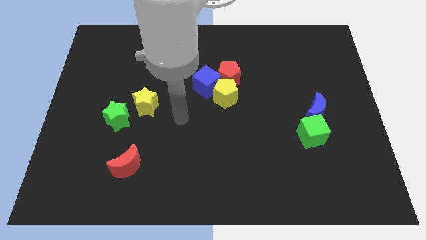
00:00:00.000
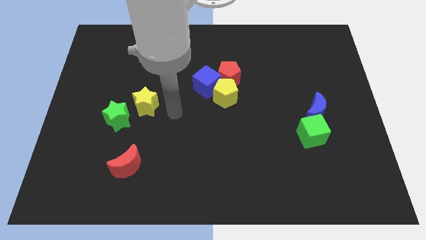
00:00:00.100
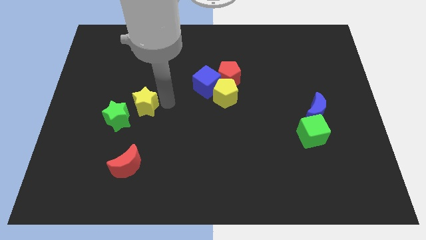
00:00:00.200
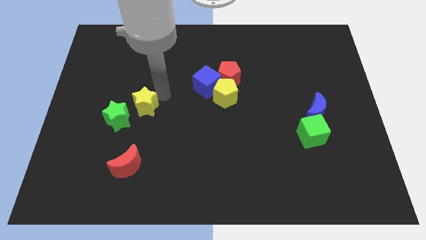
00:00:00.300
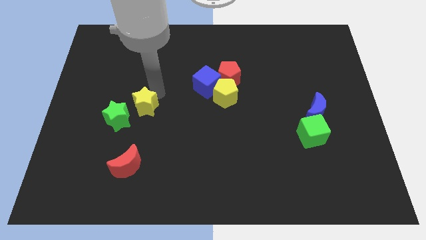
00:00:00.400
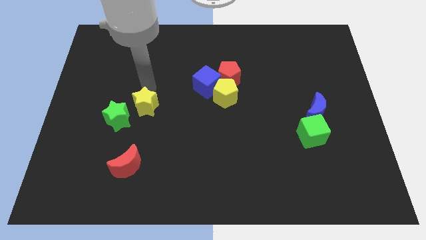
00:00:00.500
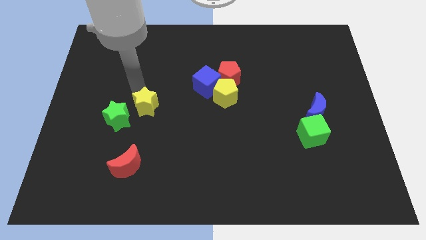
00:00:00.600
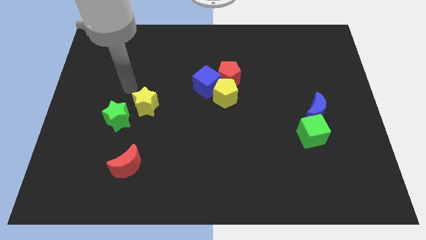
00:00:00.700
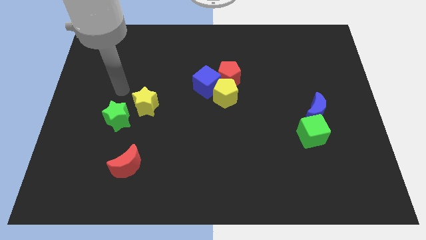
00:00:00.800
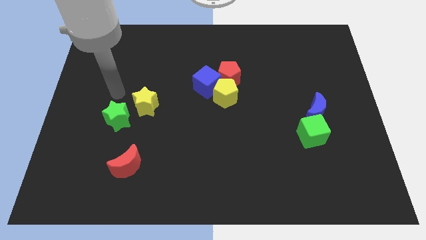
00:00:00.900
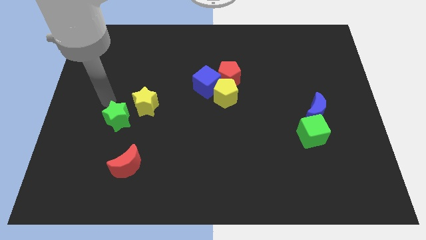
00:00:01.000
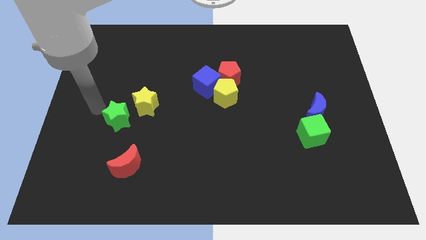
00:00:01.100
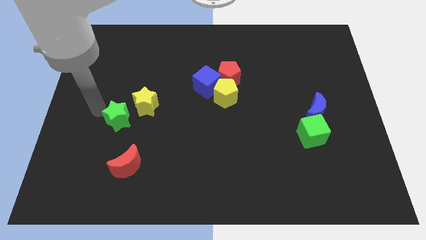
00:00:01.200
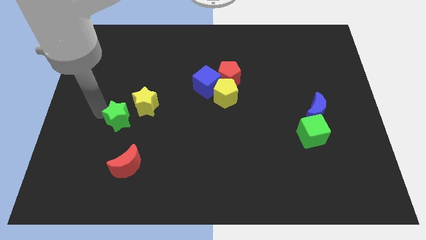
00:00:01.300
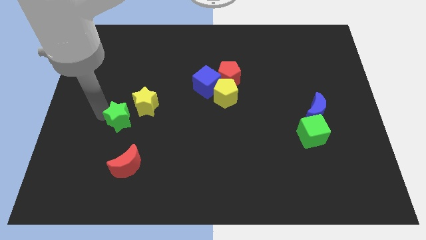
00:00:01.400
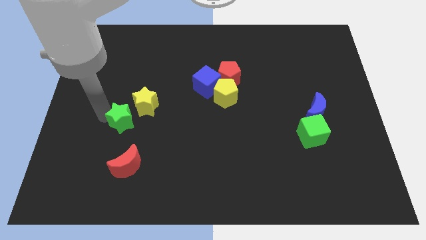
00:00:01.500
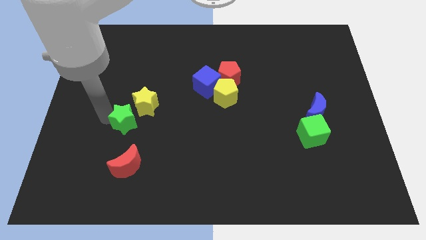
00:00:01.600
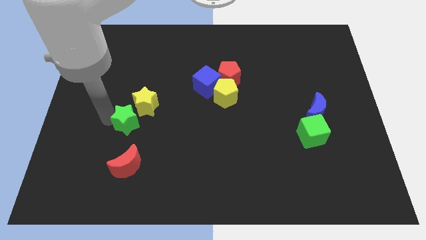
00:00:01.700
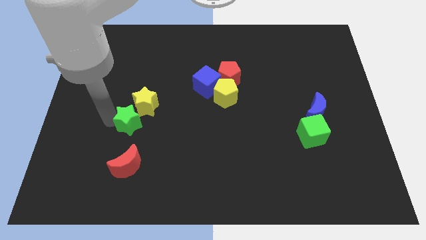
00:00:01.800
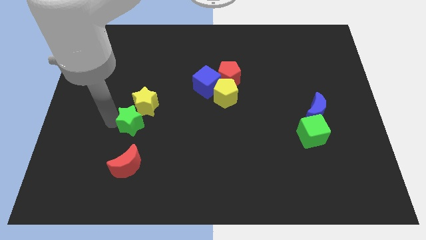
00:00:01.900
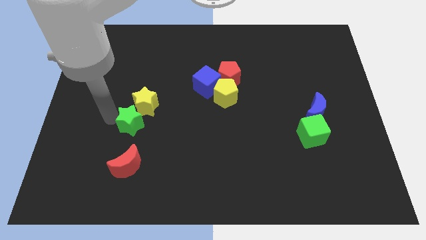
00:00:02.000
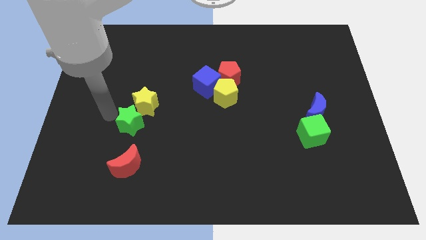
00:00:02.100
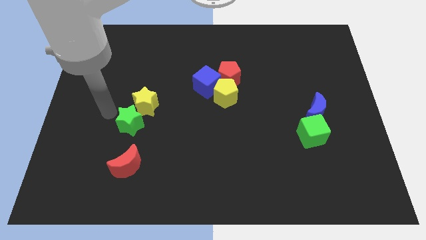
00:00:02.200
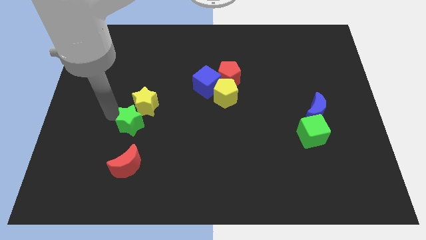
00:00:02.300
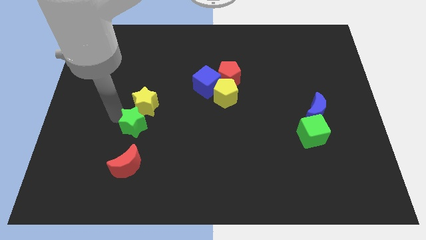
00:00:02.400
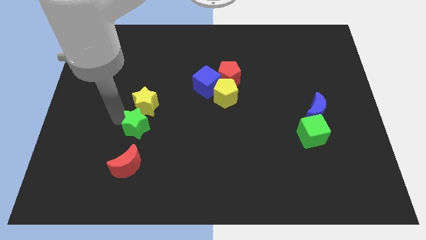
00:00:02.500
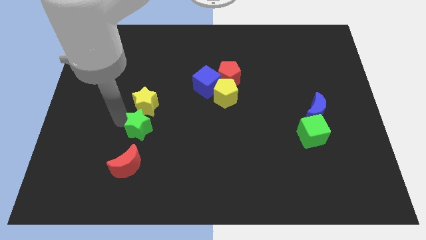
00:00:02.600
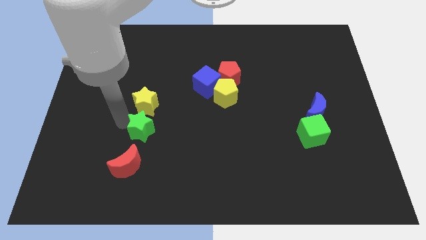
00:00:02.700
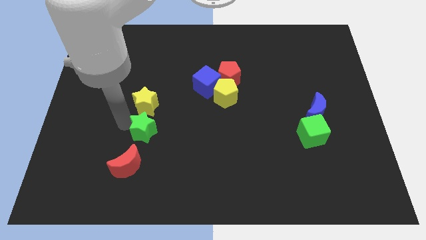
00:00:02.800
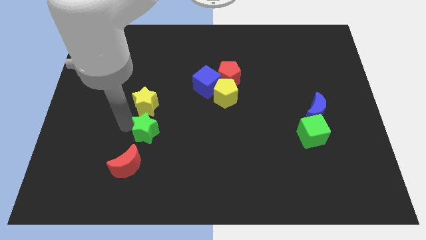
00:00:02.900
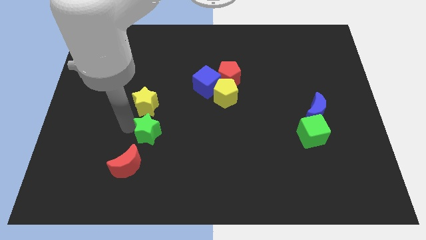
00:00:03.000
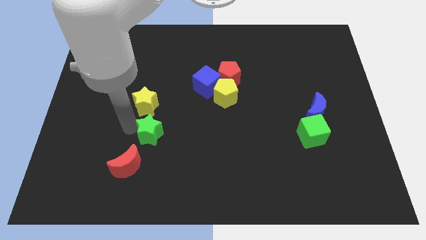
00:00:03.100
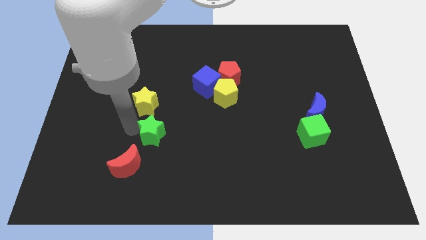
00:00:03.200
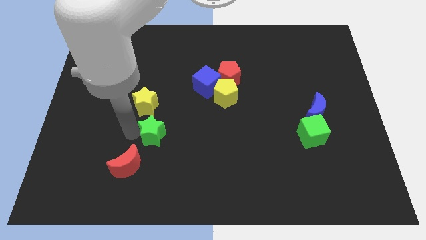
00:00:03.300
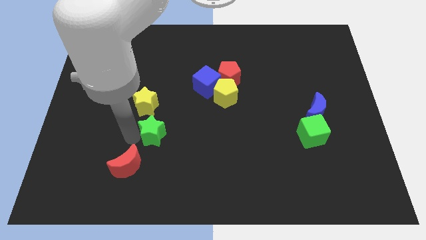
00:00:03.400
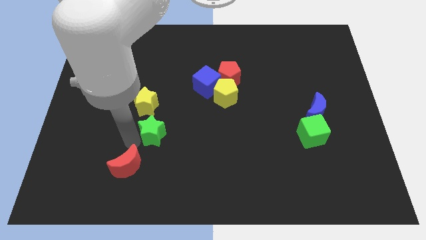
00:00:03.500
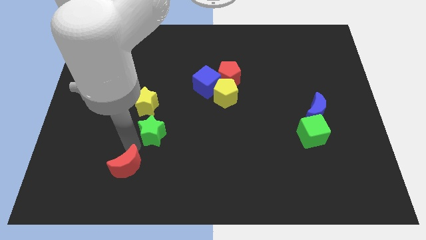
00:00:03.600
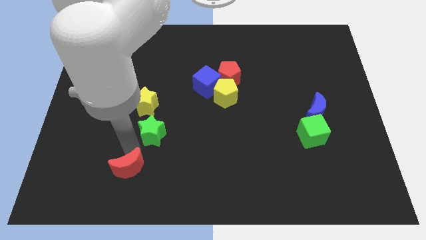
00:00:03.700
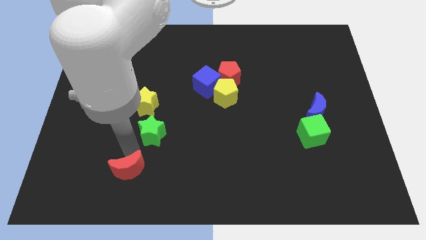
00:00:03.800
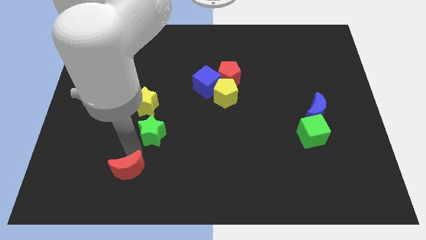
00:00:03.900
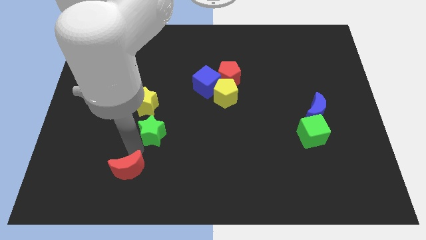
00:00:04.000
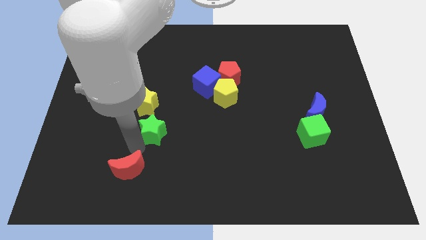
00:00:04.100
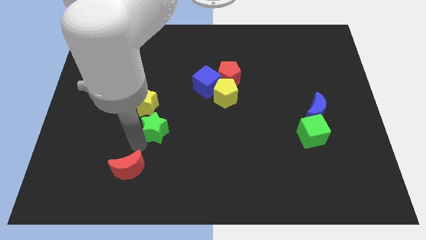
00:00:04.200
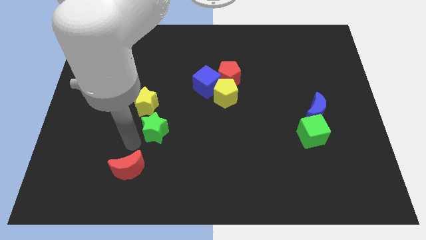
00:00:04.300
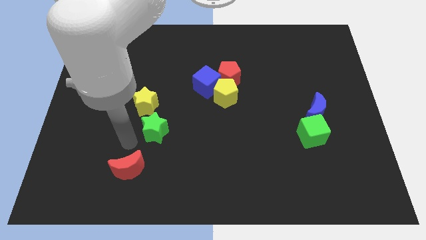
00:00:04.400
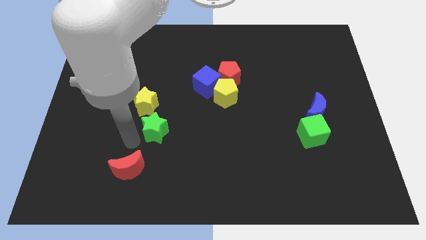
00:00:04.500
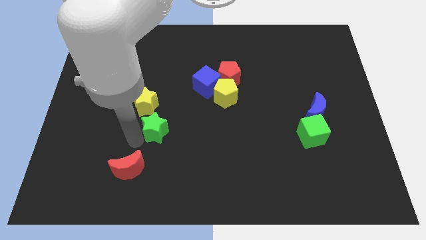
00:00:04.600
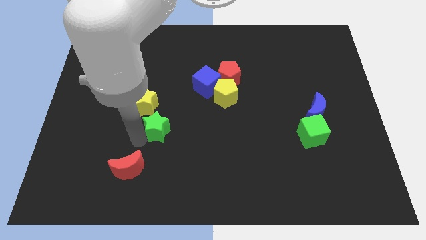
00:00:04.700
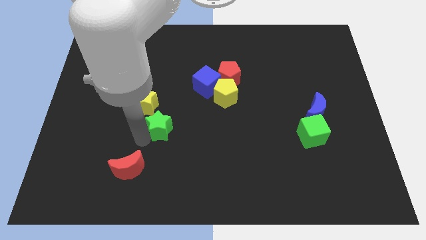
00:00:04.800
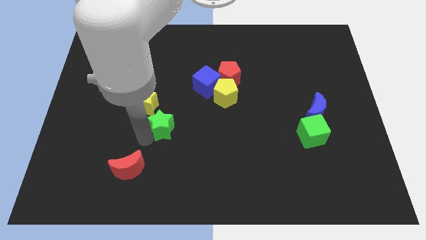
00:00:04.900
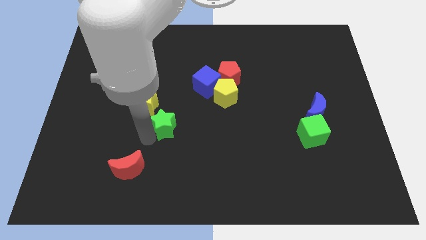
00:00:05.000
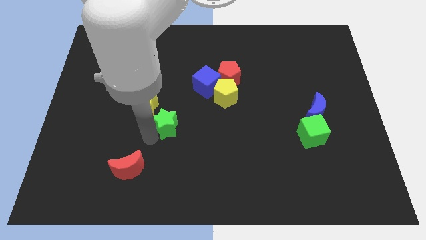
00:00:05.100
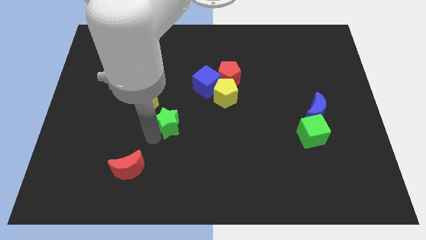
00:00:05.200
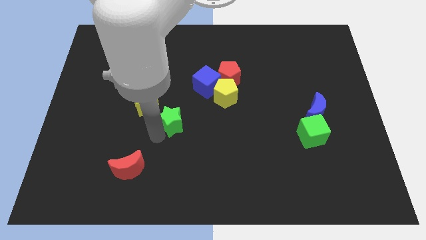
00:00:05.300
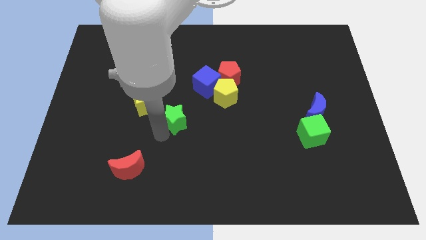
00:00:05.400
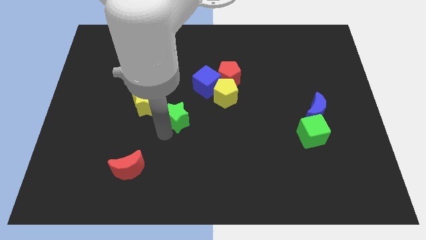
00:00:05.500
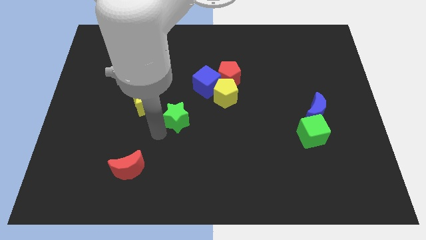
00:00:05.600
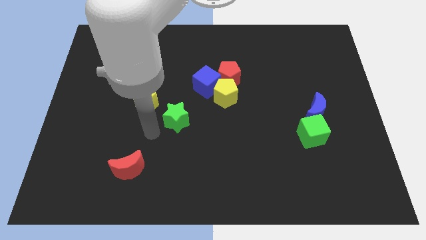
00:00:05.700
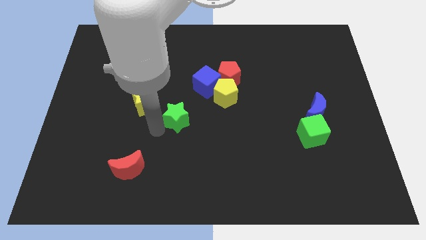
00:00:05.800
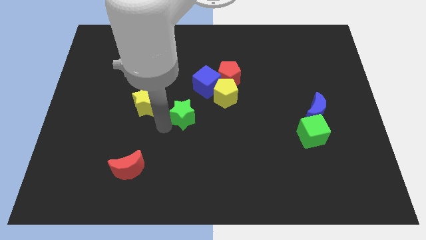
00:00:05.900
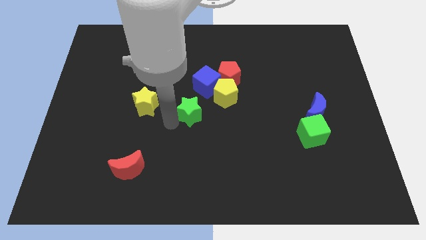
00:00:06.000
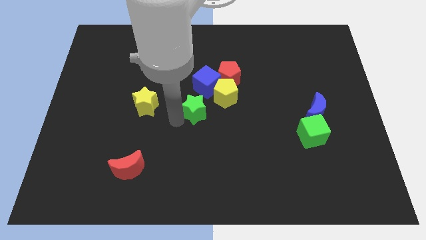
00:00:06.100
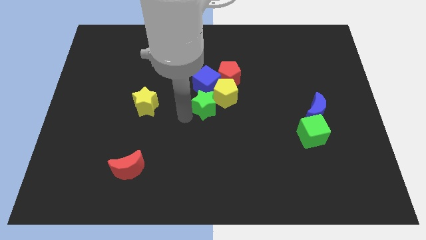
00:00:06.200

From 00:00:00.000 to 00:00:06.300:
move the green star to the yellow pentagon

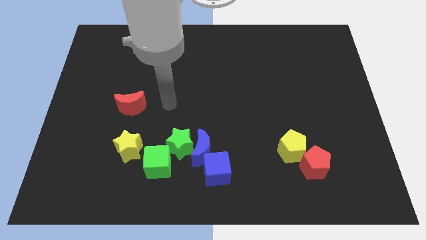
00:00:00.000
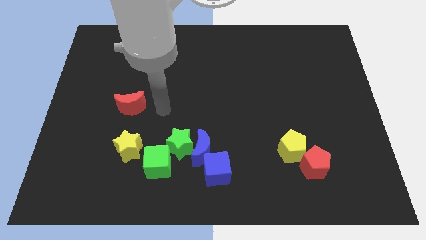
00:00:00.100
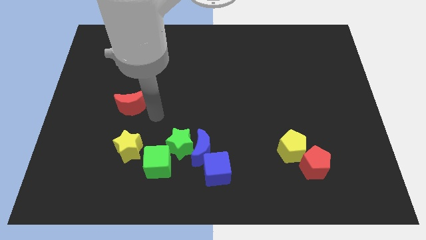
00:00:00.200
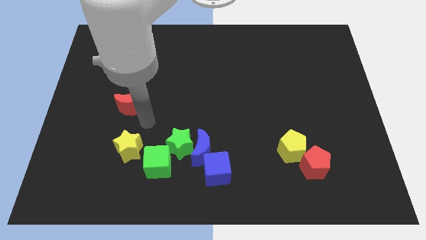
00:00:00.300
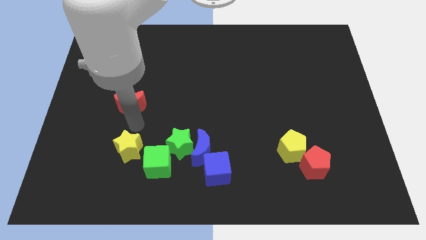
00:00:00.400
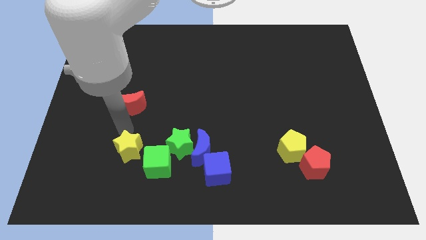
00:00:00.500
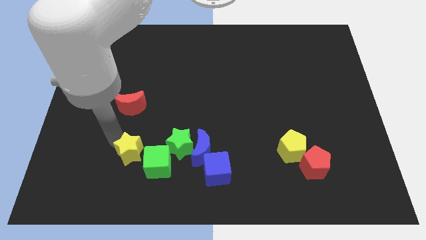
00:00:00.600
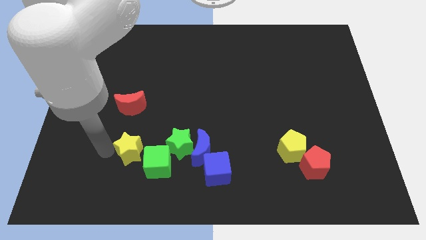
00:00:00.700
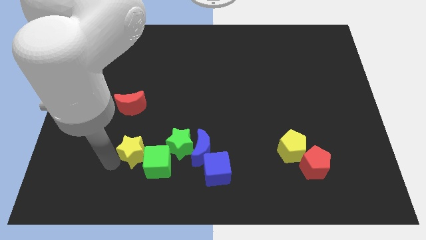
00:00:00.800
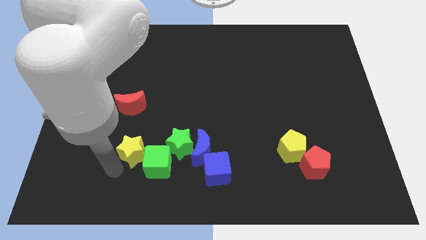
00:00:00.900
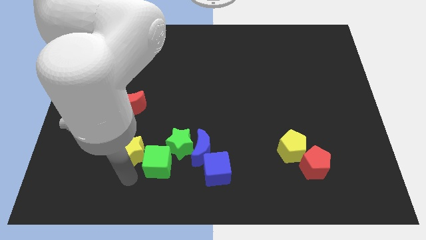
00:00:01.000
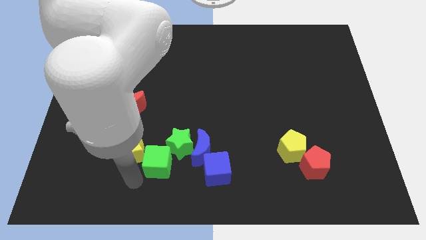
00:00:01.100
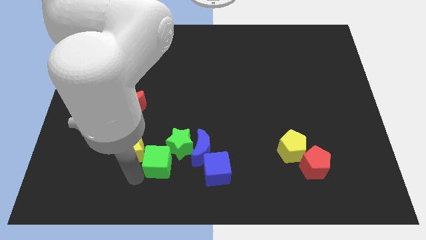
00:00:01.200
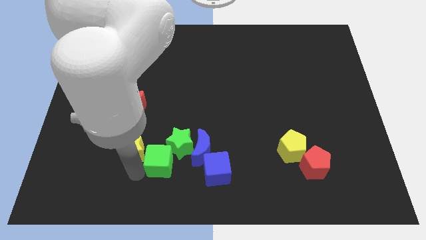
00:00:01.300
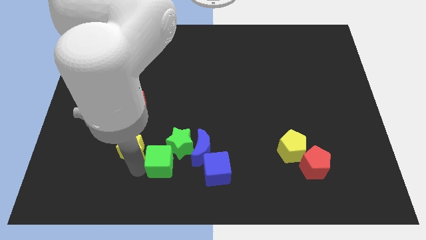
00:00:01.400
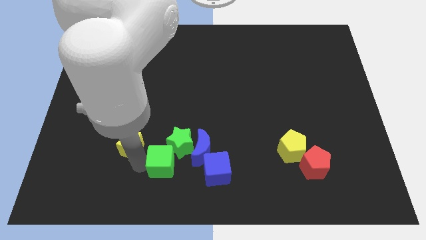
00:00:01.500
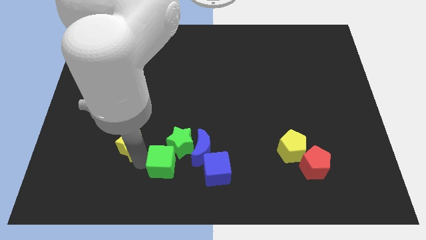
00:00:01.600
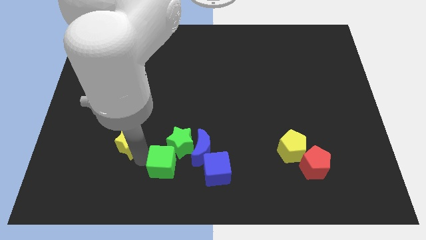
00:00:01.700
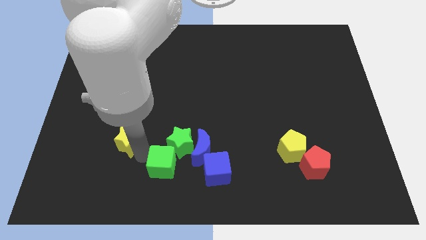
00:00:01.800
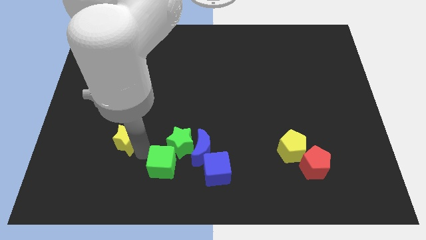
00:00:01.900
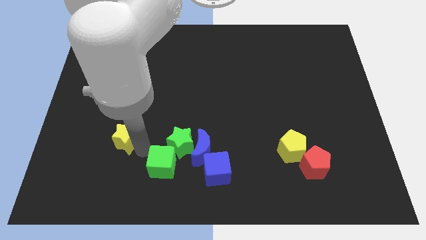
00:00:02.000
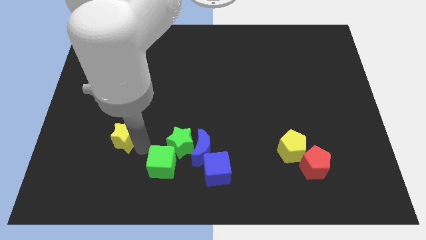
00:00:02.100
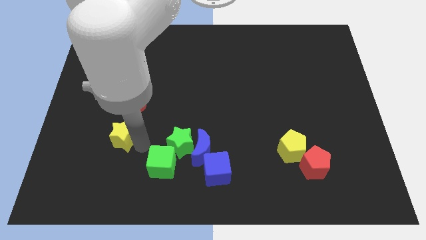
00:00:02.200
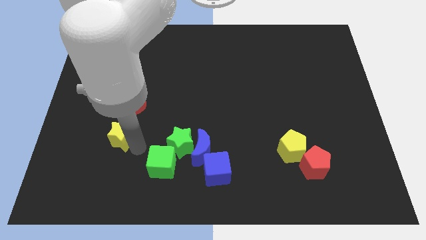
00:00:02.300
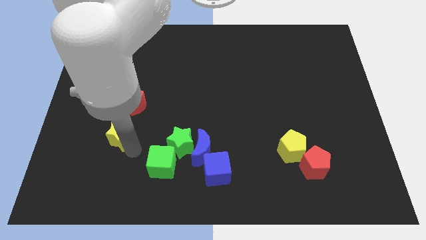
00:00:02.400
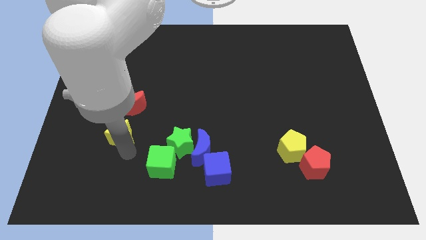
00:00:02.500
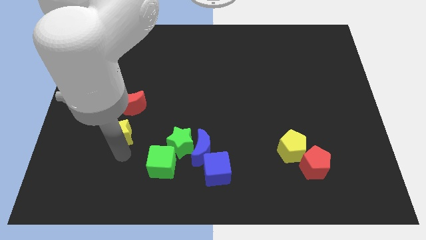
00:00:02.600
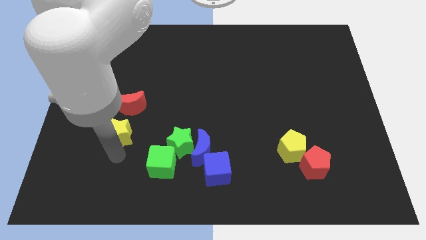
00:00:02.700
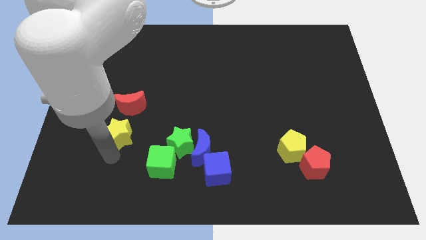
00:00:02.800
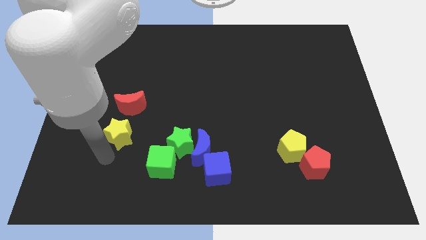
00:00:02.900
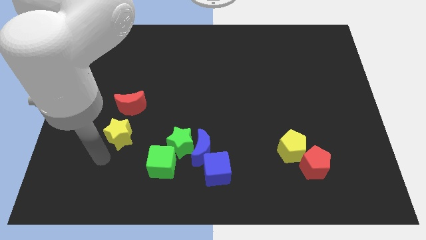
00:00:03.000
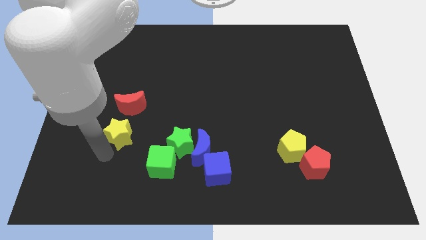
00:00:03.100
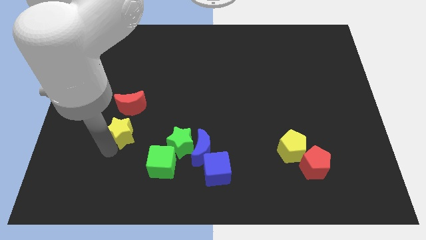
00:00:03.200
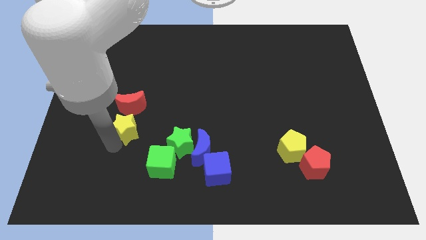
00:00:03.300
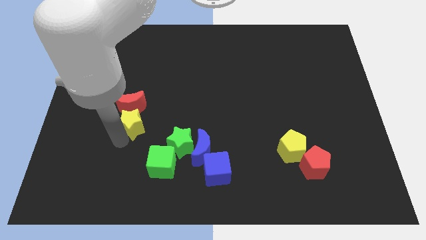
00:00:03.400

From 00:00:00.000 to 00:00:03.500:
slide the yellow star to the red moon
